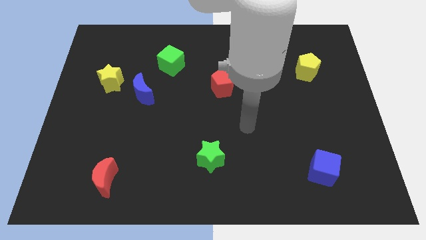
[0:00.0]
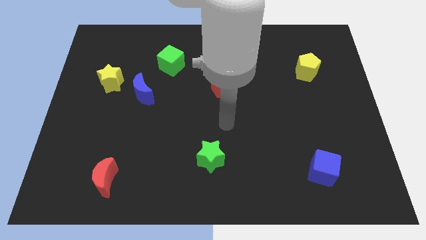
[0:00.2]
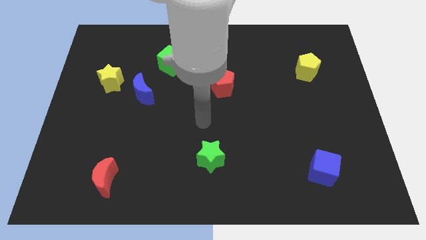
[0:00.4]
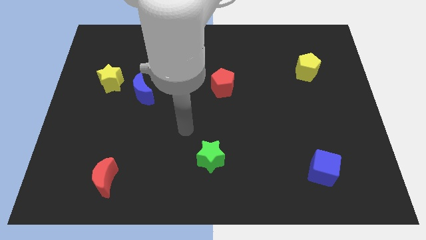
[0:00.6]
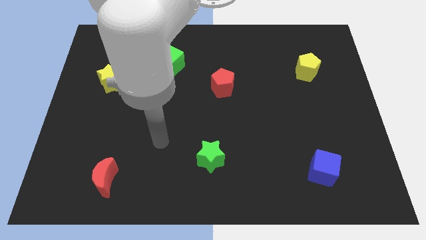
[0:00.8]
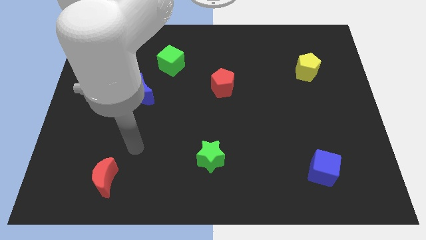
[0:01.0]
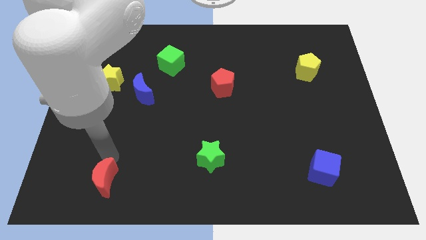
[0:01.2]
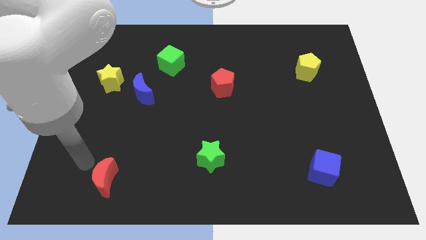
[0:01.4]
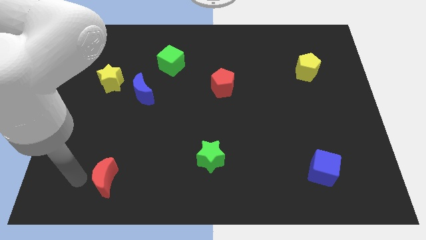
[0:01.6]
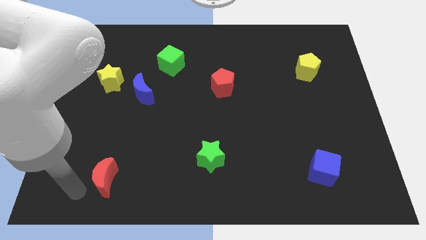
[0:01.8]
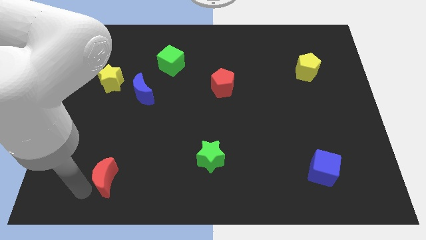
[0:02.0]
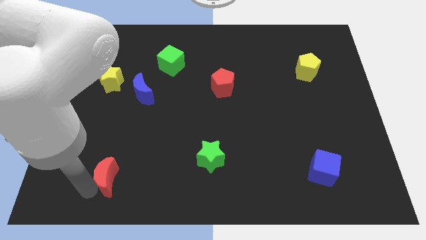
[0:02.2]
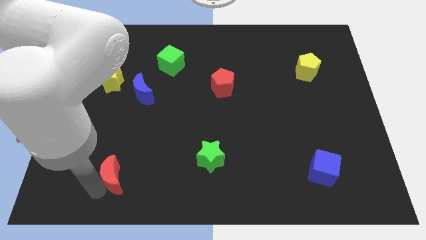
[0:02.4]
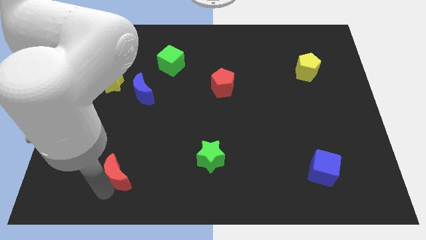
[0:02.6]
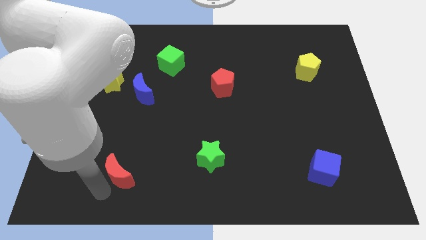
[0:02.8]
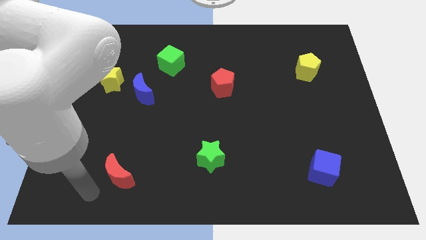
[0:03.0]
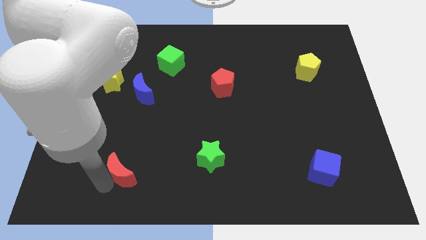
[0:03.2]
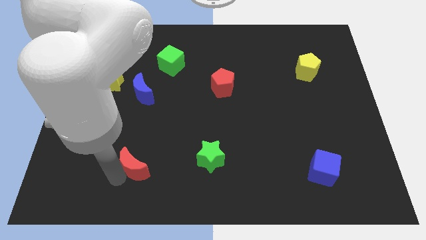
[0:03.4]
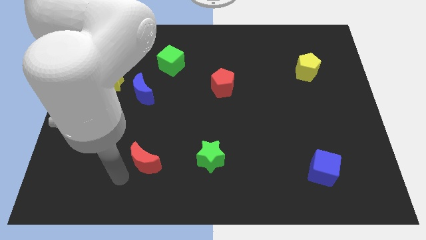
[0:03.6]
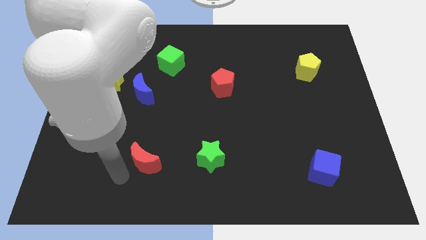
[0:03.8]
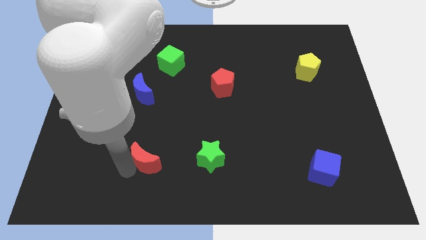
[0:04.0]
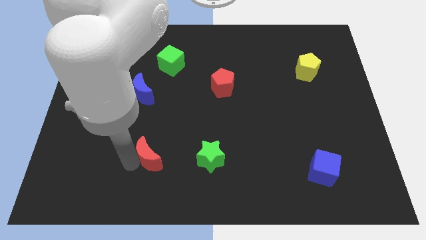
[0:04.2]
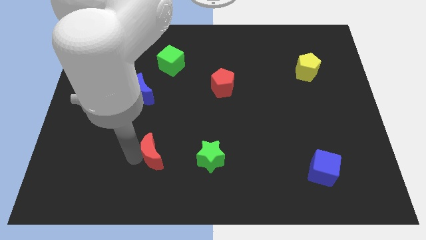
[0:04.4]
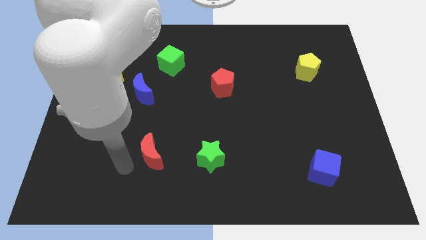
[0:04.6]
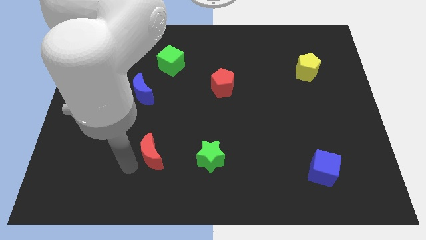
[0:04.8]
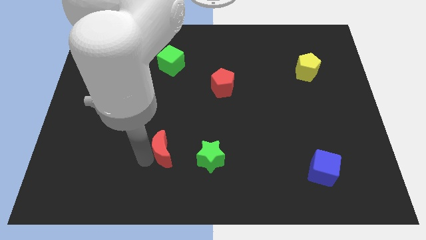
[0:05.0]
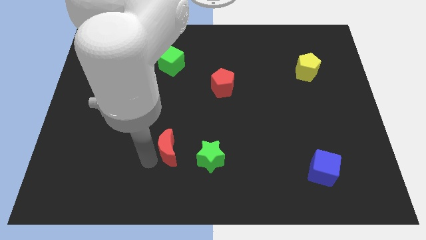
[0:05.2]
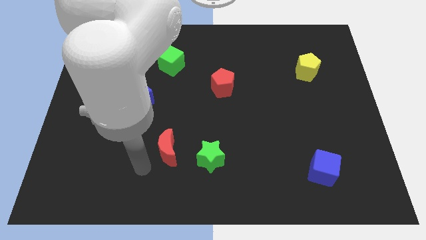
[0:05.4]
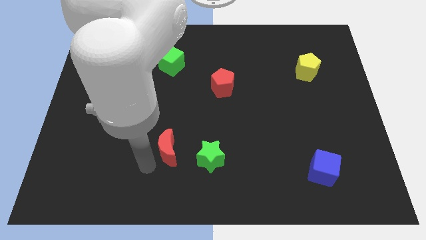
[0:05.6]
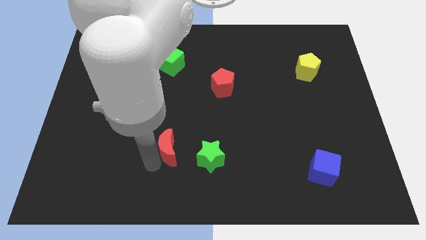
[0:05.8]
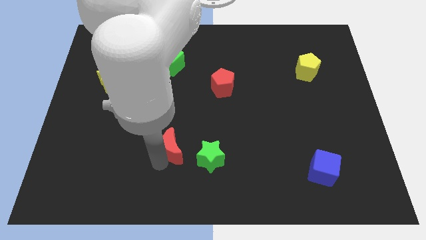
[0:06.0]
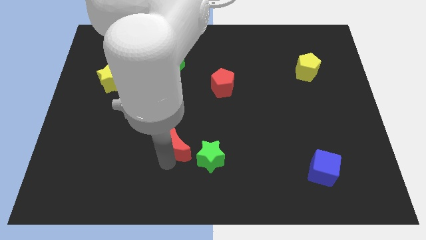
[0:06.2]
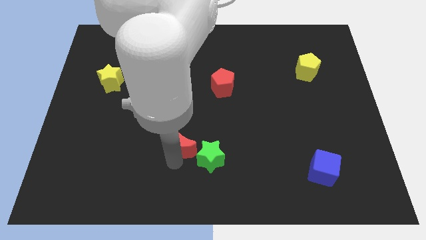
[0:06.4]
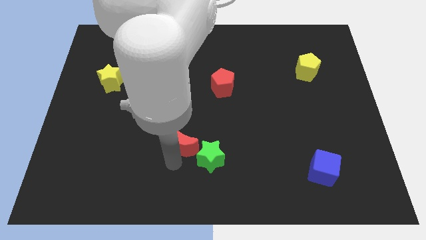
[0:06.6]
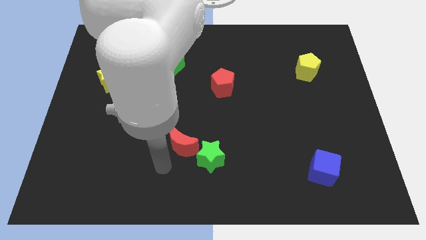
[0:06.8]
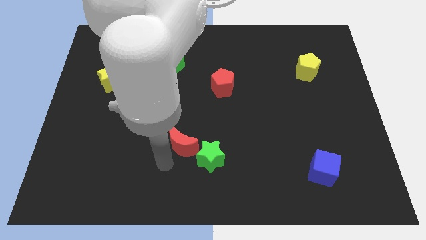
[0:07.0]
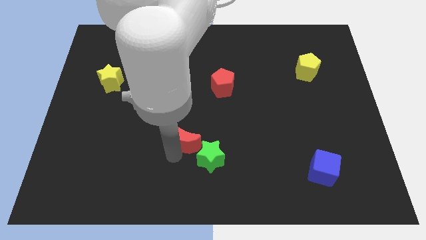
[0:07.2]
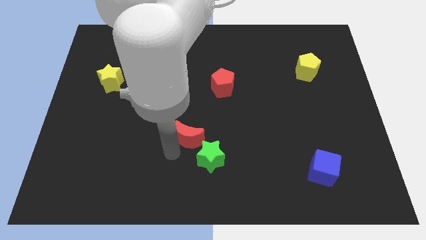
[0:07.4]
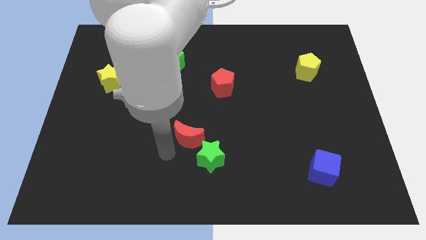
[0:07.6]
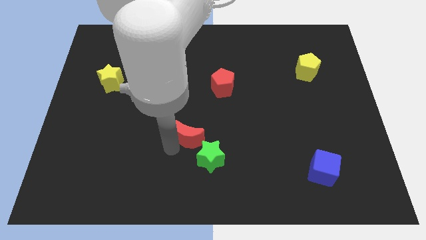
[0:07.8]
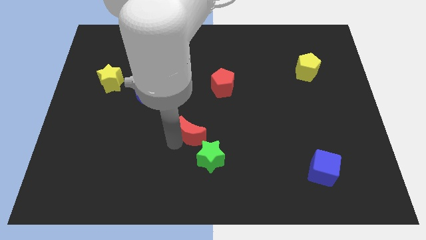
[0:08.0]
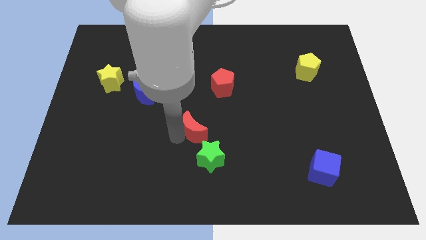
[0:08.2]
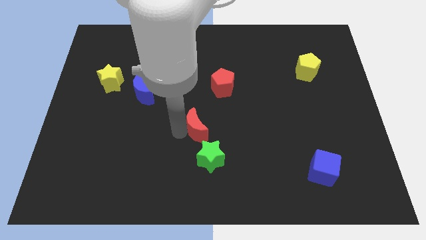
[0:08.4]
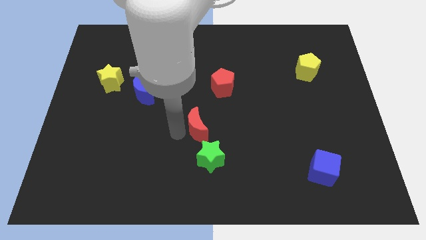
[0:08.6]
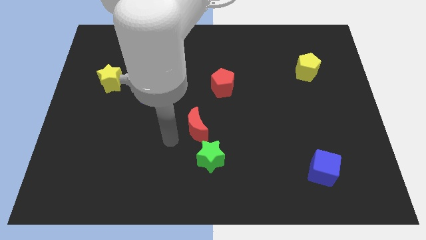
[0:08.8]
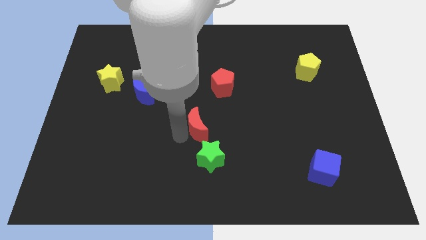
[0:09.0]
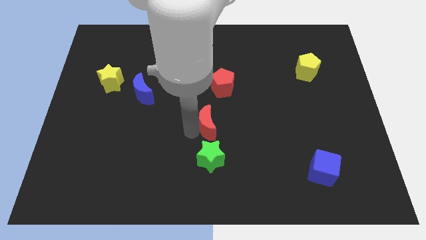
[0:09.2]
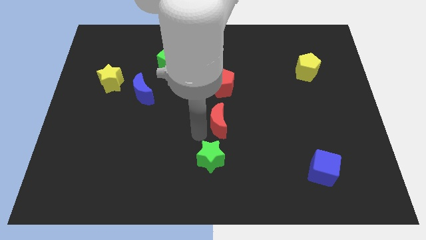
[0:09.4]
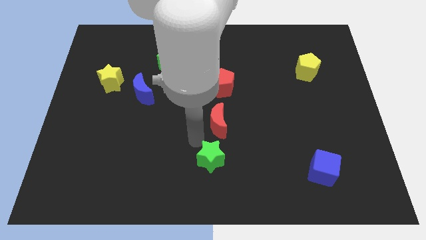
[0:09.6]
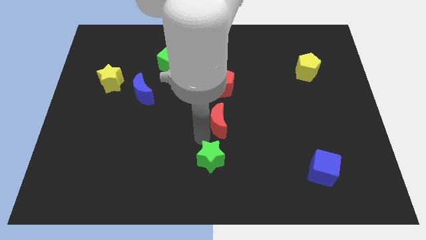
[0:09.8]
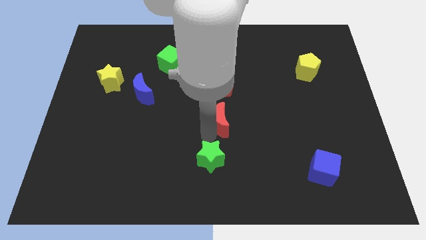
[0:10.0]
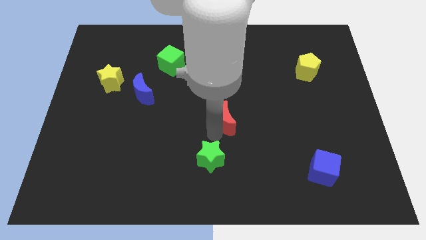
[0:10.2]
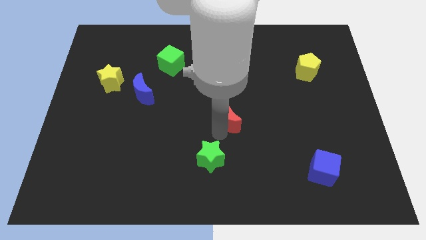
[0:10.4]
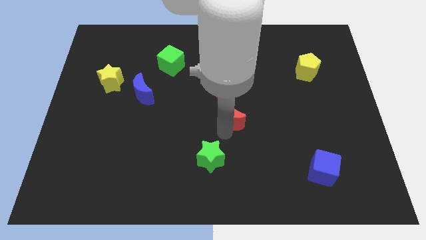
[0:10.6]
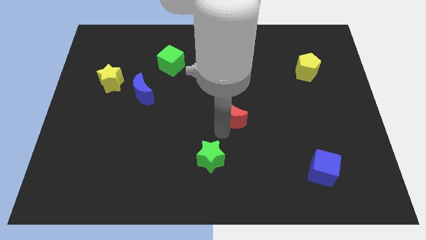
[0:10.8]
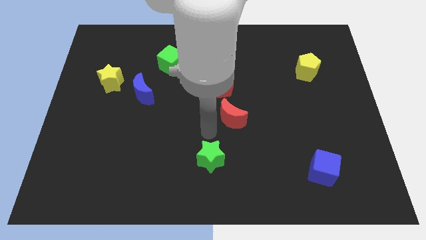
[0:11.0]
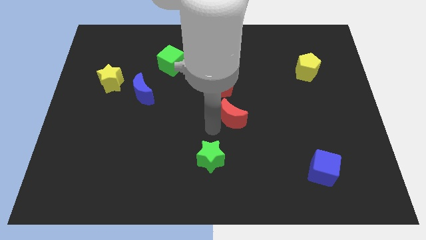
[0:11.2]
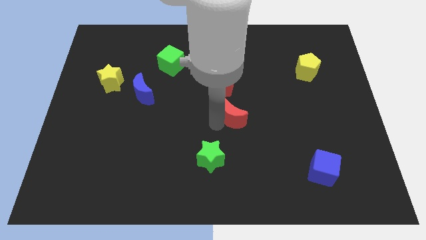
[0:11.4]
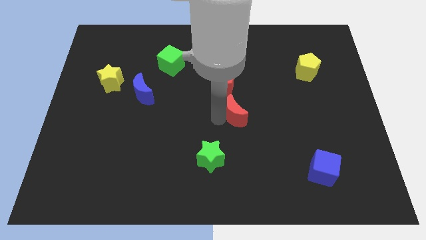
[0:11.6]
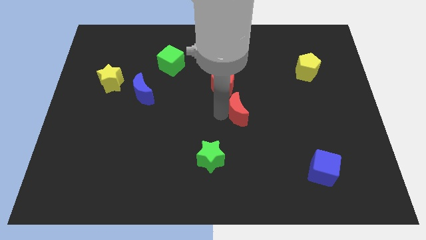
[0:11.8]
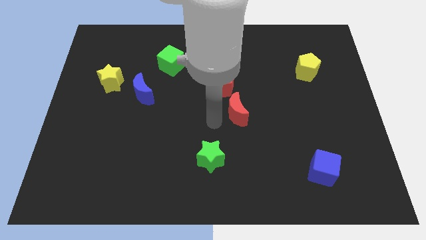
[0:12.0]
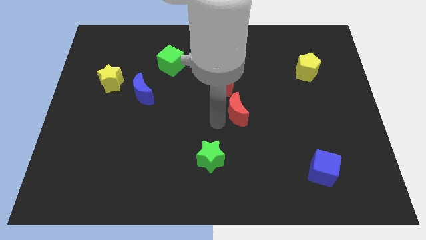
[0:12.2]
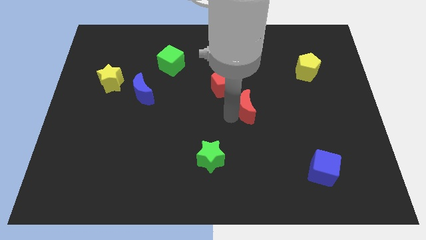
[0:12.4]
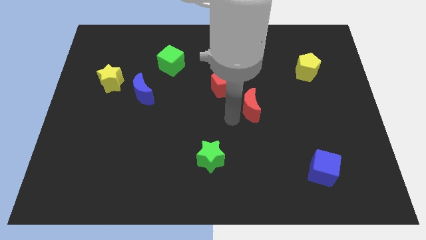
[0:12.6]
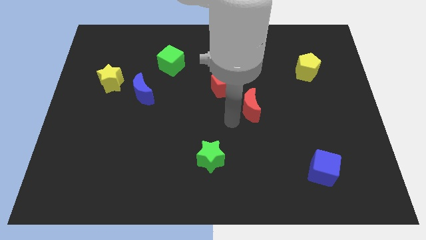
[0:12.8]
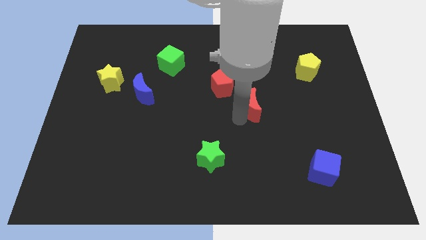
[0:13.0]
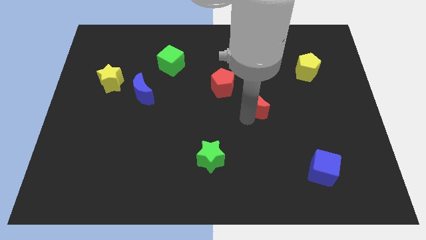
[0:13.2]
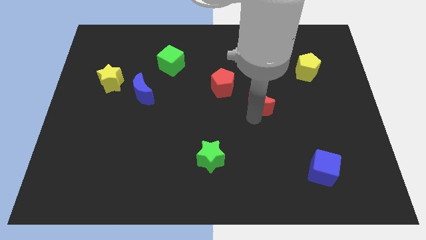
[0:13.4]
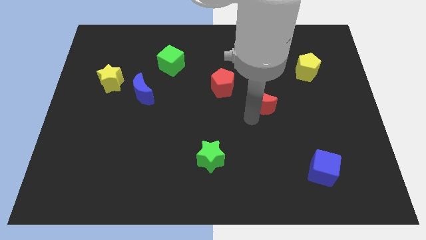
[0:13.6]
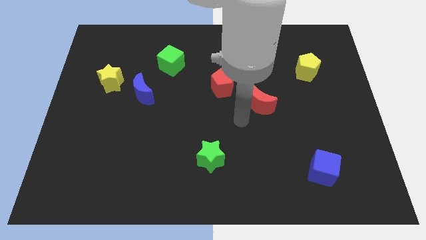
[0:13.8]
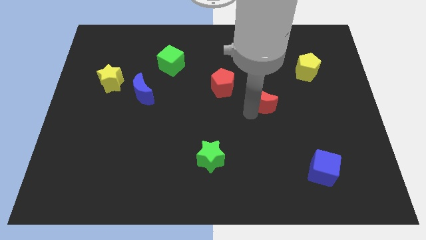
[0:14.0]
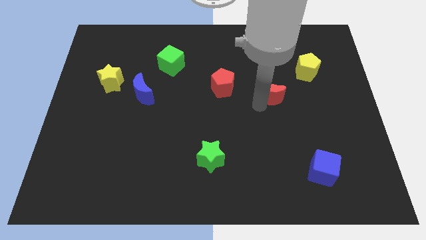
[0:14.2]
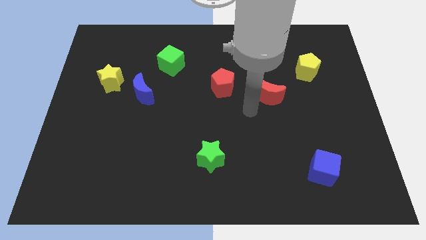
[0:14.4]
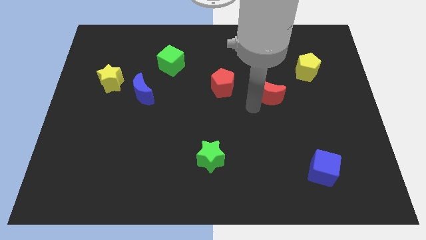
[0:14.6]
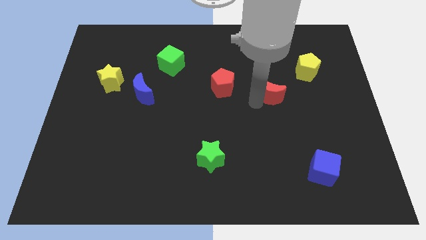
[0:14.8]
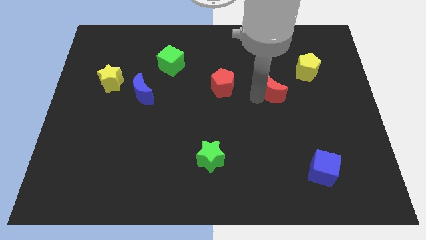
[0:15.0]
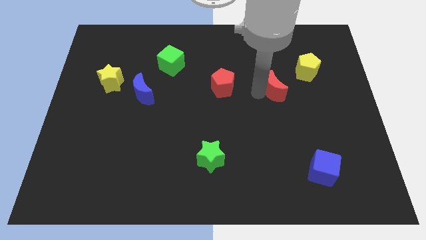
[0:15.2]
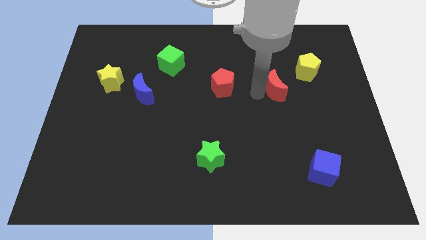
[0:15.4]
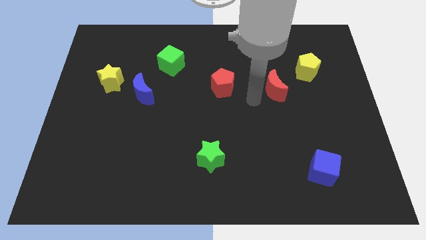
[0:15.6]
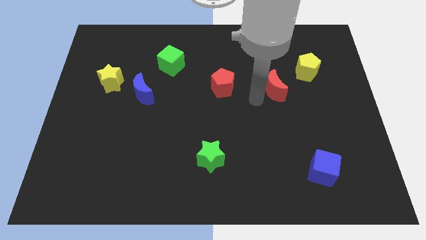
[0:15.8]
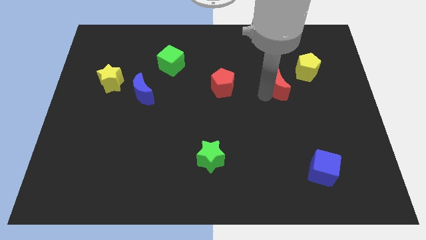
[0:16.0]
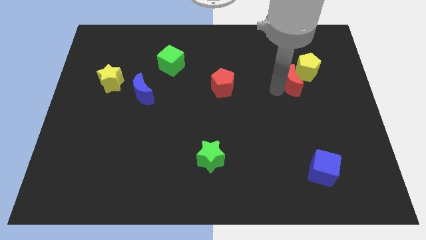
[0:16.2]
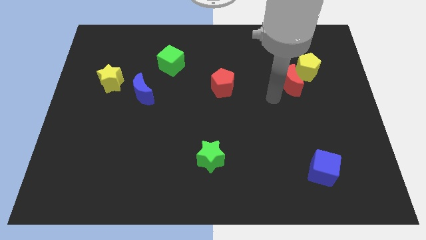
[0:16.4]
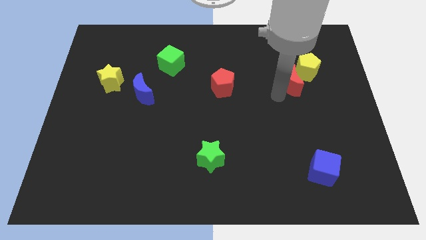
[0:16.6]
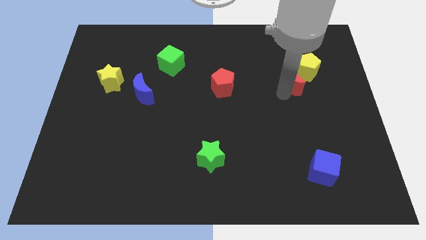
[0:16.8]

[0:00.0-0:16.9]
move the red moon close to the yellow pentagon

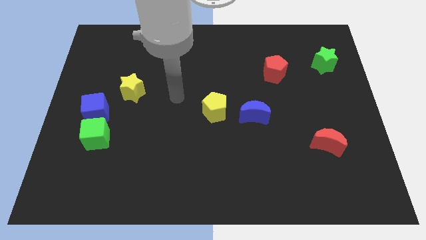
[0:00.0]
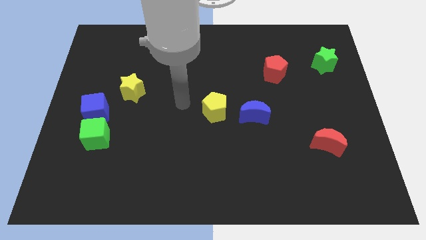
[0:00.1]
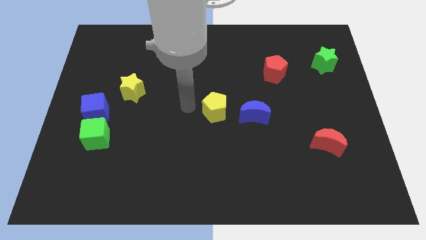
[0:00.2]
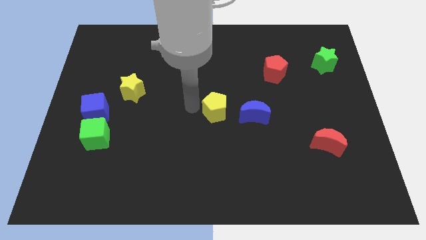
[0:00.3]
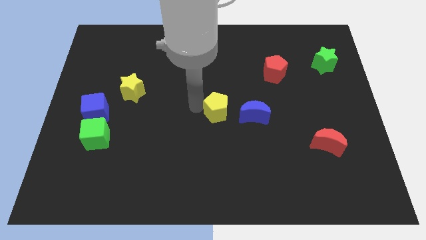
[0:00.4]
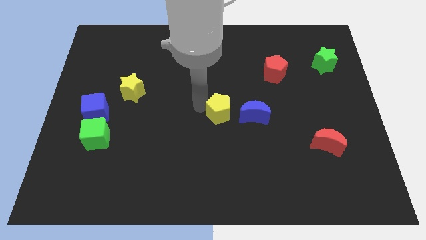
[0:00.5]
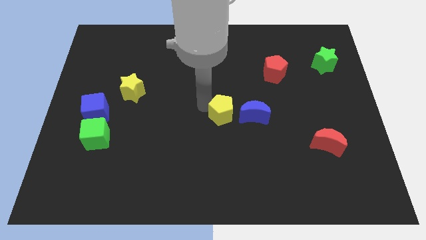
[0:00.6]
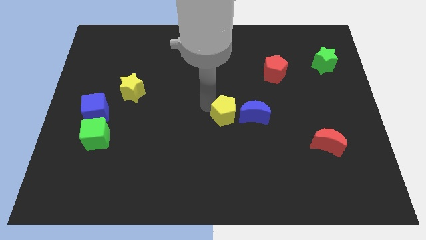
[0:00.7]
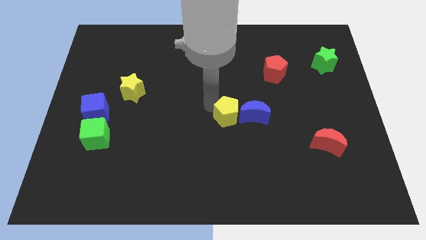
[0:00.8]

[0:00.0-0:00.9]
push the yellow pentagon to the blue moon
